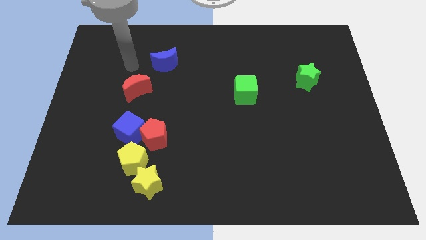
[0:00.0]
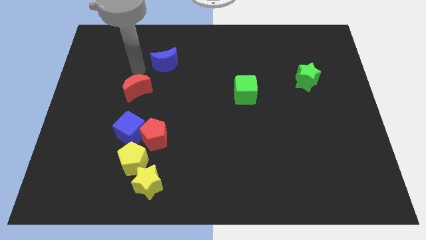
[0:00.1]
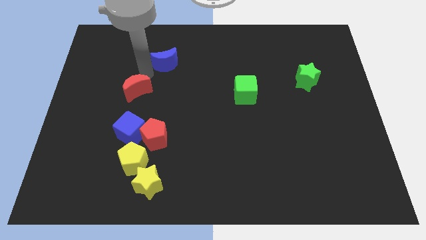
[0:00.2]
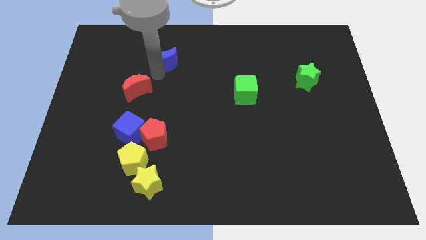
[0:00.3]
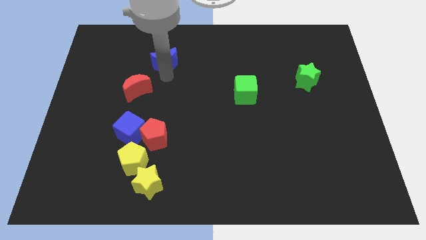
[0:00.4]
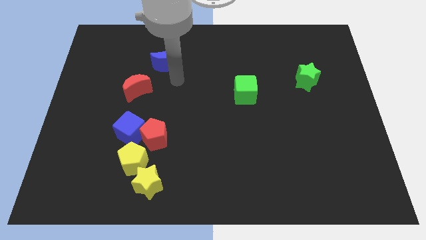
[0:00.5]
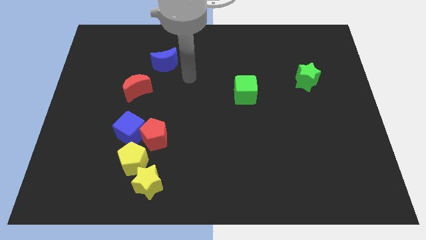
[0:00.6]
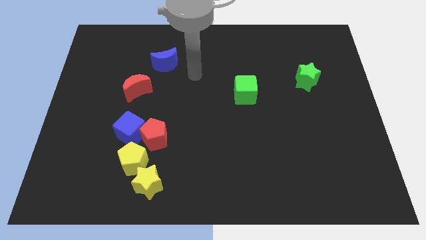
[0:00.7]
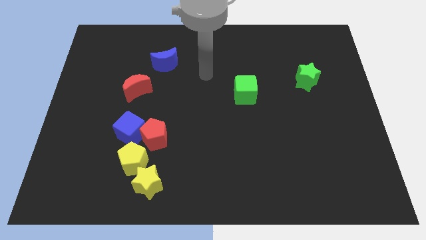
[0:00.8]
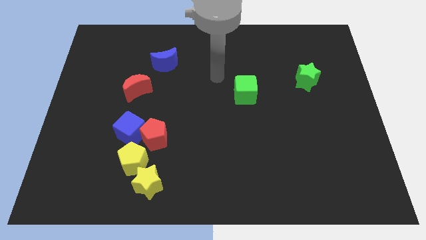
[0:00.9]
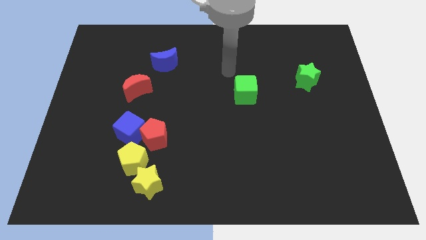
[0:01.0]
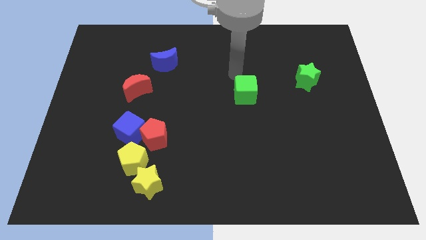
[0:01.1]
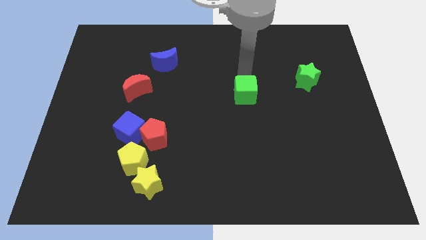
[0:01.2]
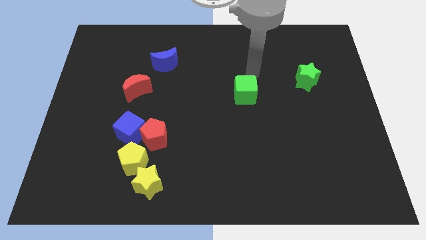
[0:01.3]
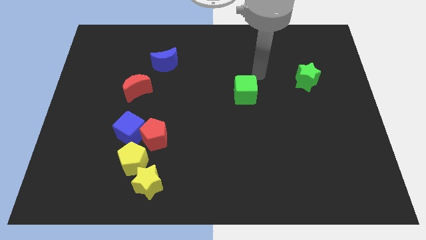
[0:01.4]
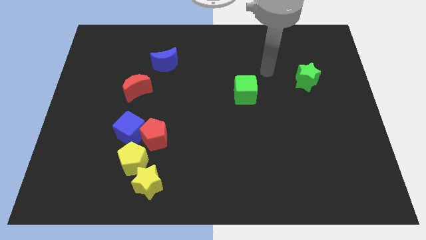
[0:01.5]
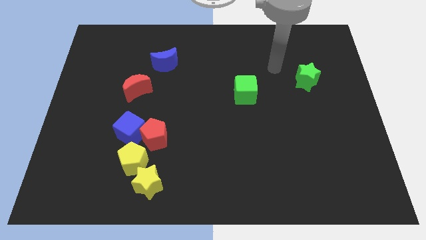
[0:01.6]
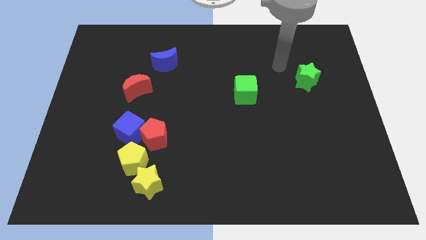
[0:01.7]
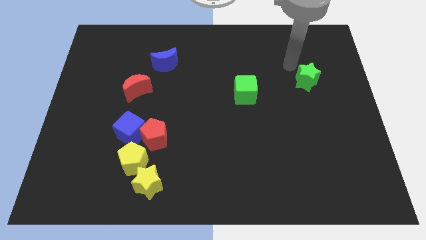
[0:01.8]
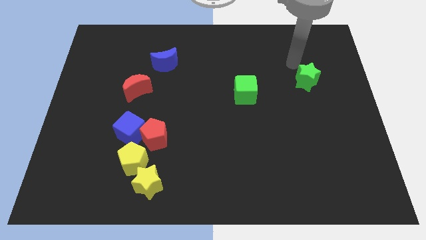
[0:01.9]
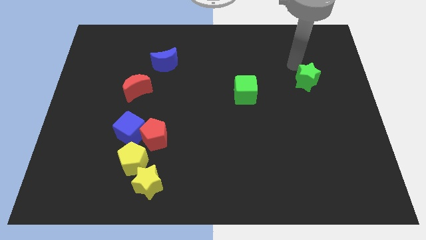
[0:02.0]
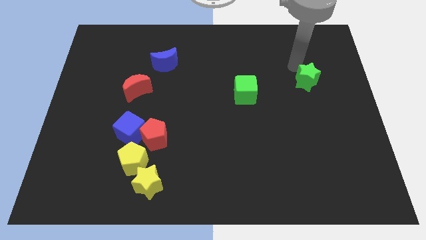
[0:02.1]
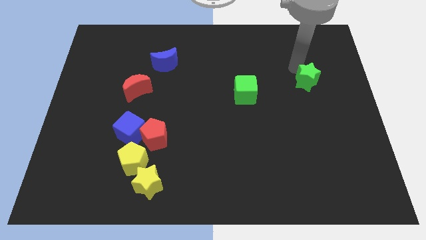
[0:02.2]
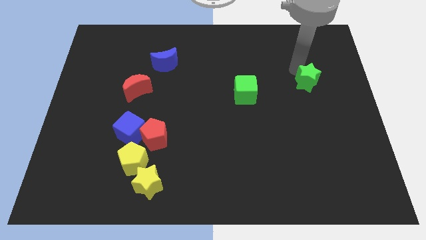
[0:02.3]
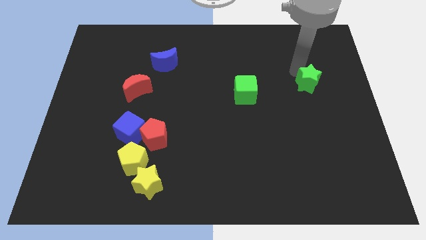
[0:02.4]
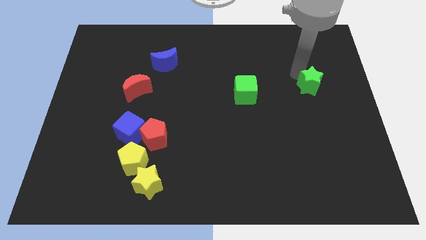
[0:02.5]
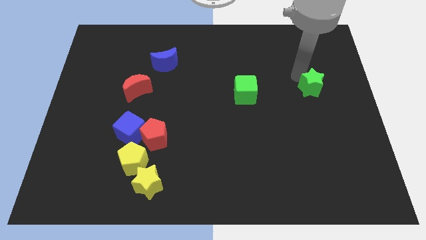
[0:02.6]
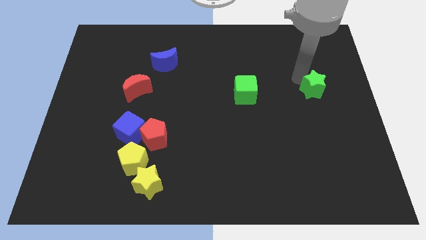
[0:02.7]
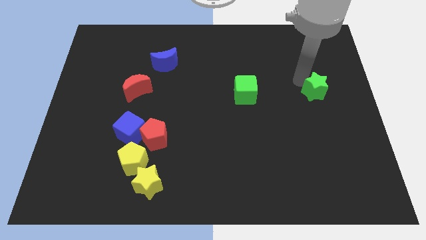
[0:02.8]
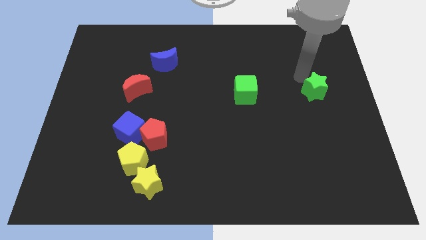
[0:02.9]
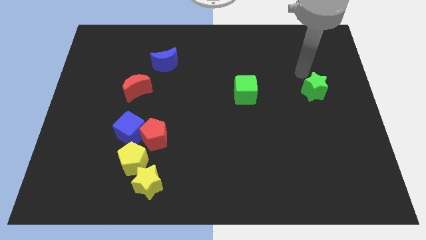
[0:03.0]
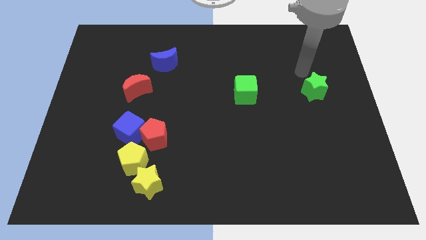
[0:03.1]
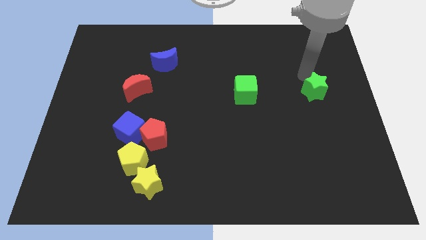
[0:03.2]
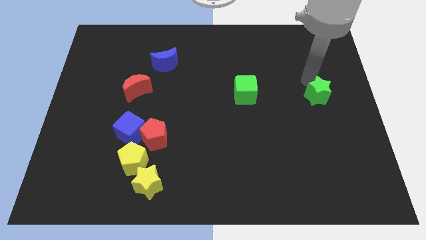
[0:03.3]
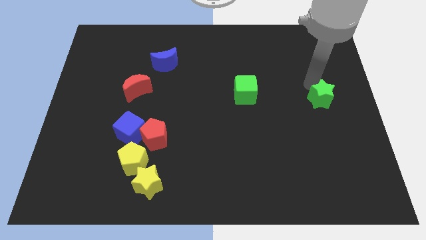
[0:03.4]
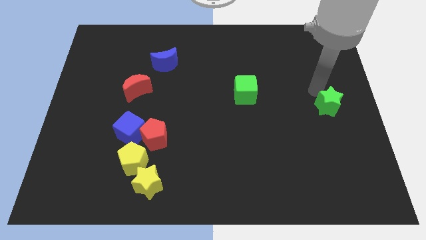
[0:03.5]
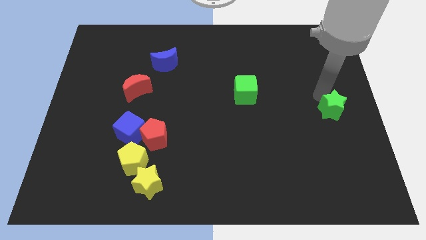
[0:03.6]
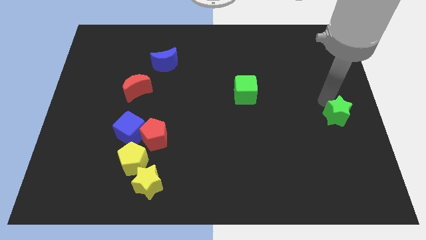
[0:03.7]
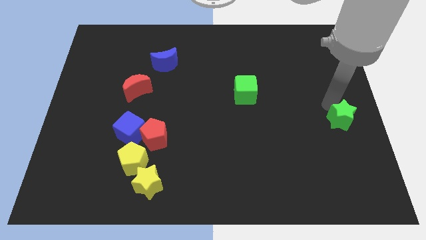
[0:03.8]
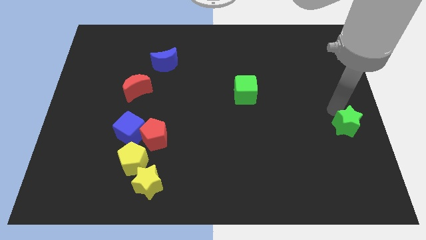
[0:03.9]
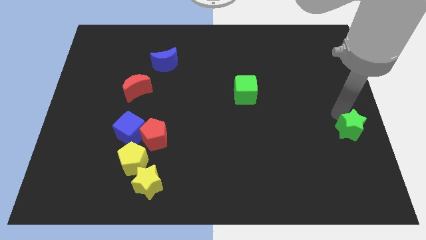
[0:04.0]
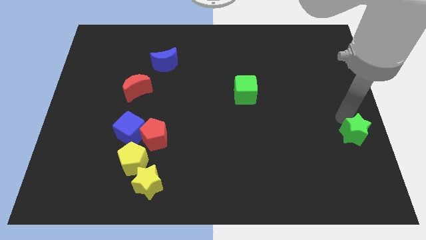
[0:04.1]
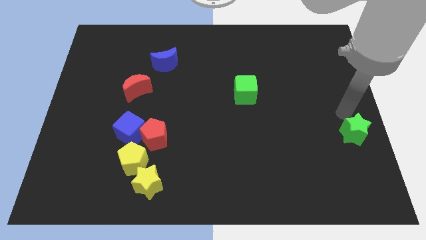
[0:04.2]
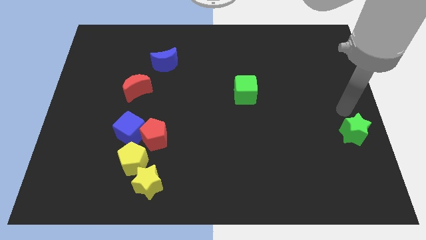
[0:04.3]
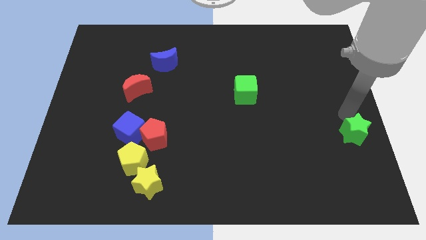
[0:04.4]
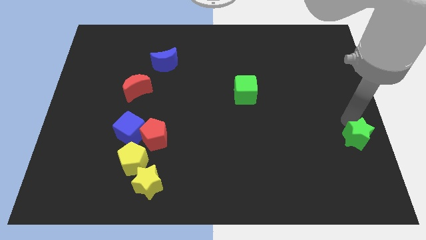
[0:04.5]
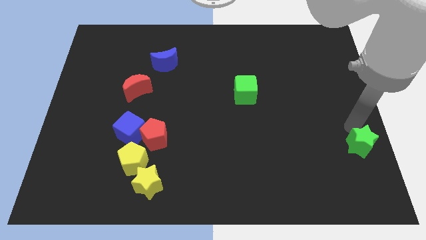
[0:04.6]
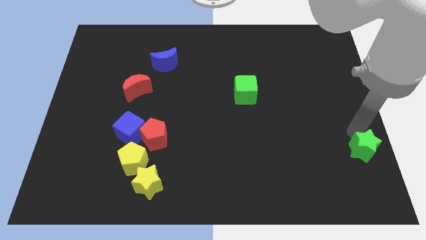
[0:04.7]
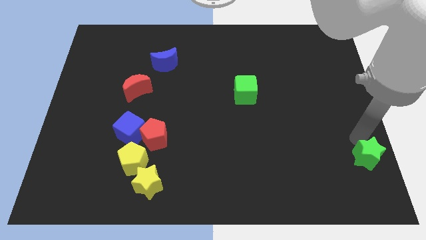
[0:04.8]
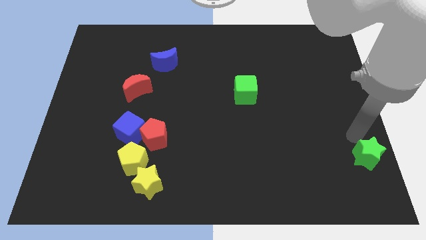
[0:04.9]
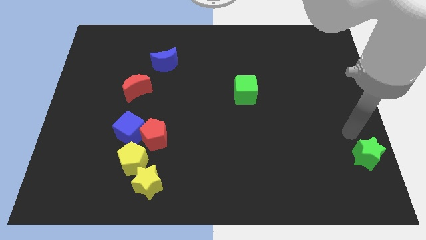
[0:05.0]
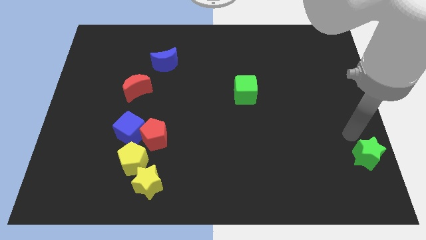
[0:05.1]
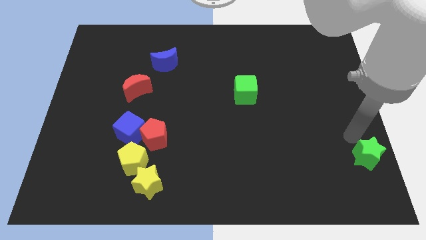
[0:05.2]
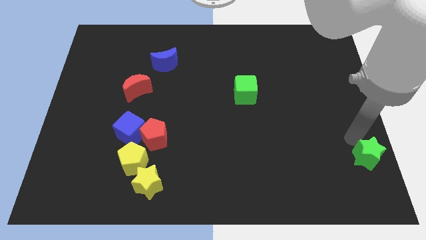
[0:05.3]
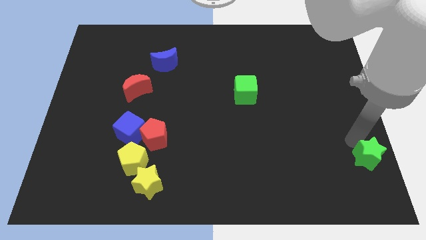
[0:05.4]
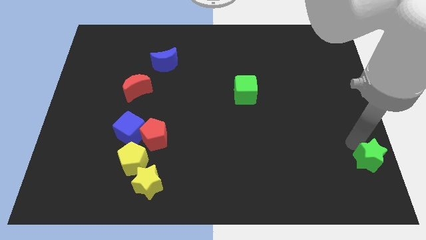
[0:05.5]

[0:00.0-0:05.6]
move the green star to the lower right corner

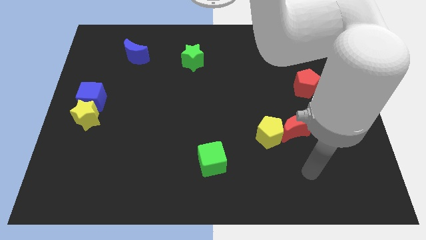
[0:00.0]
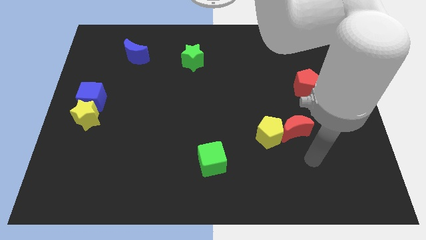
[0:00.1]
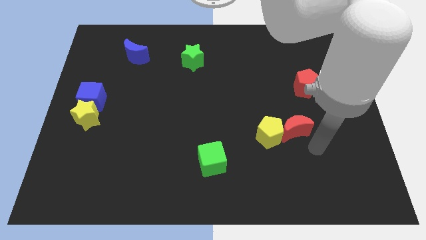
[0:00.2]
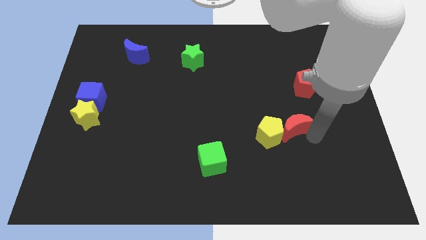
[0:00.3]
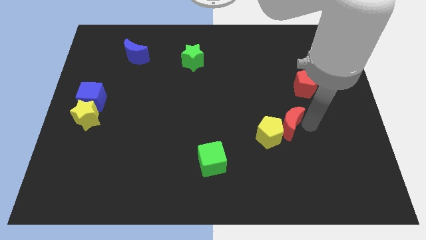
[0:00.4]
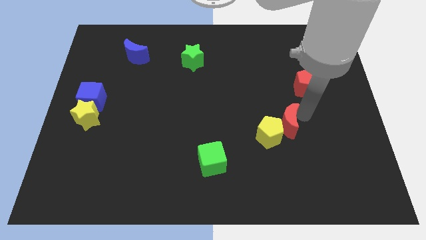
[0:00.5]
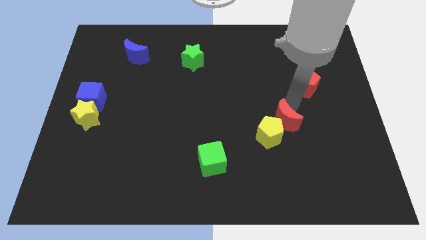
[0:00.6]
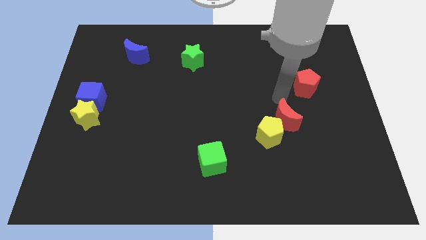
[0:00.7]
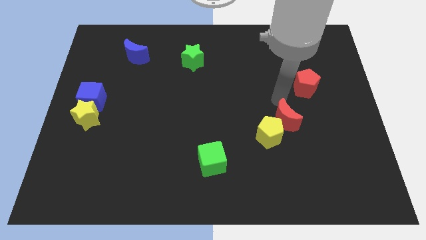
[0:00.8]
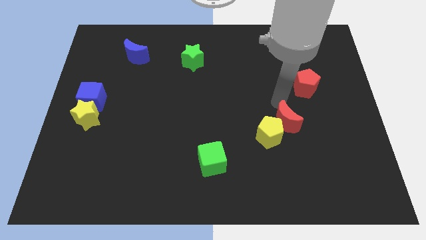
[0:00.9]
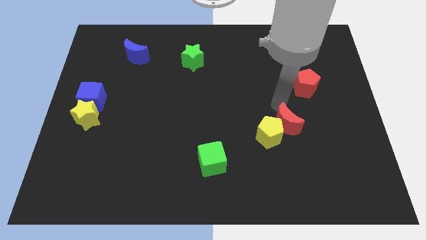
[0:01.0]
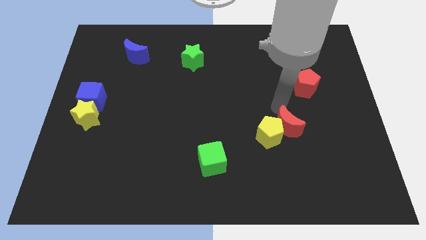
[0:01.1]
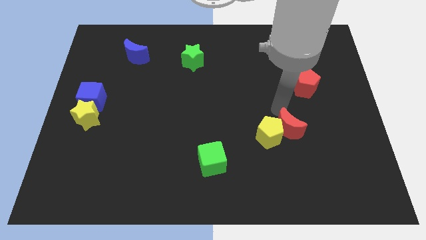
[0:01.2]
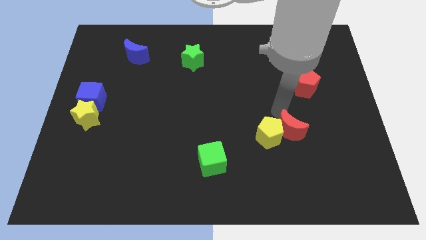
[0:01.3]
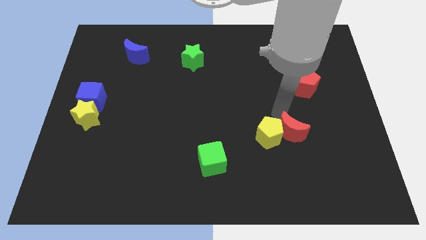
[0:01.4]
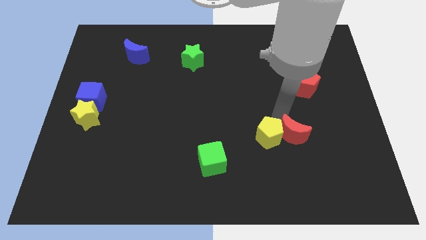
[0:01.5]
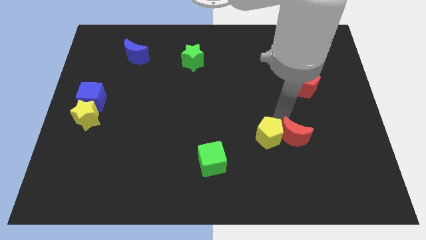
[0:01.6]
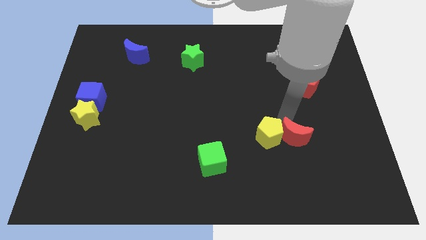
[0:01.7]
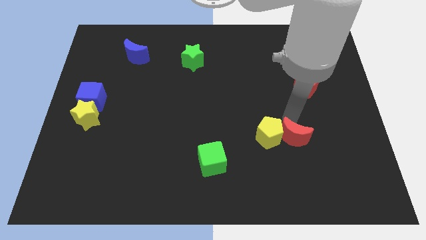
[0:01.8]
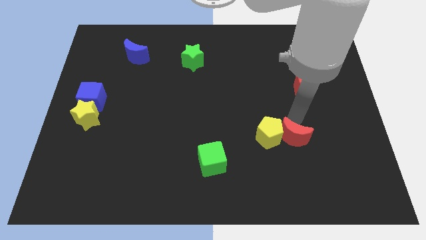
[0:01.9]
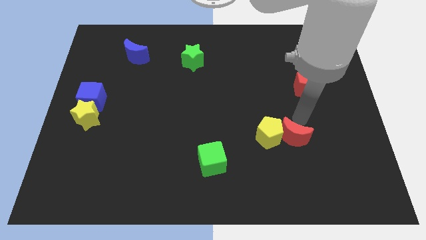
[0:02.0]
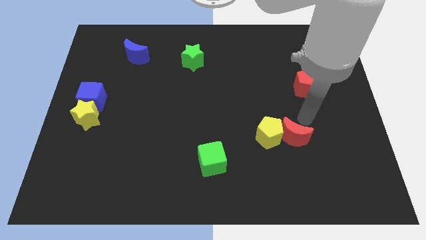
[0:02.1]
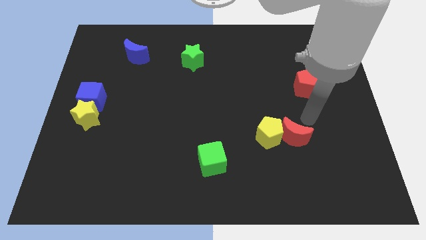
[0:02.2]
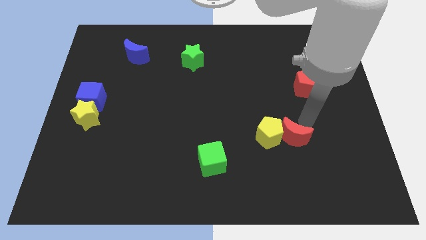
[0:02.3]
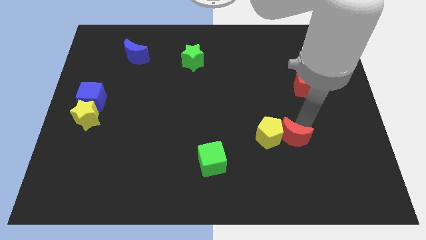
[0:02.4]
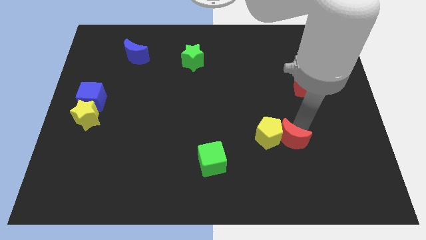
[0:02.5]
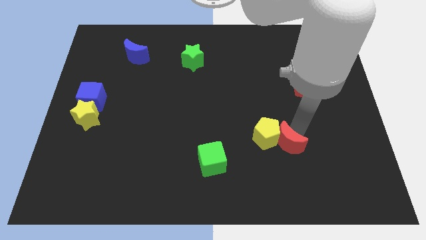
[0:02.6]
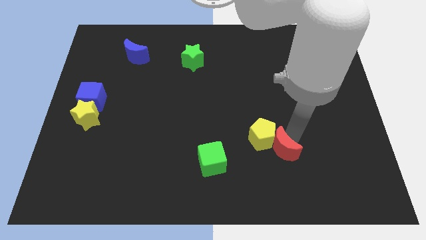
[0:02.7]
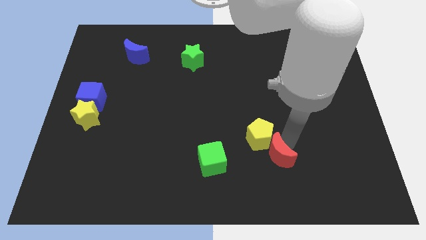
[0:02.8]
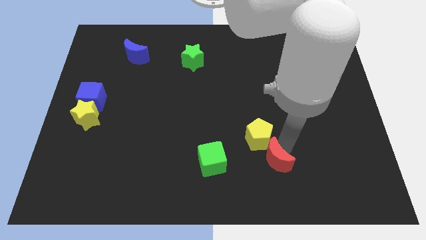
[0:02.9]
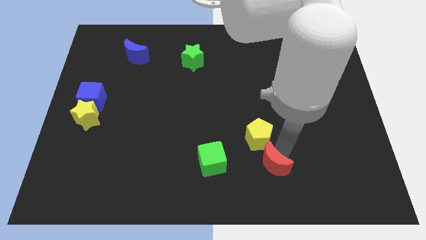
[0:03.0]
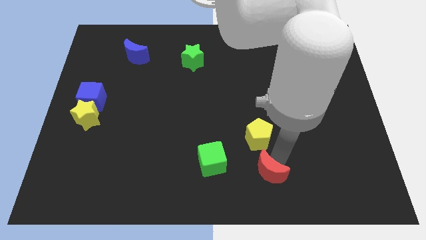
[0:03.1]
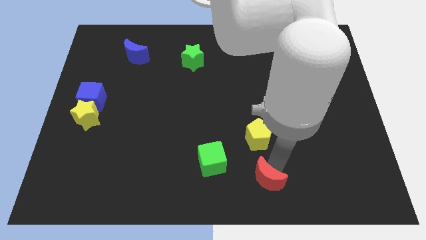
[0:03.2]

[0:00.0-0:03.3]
push the red moon to the bottom
